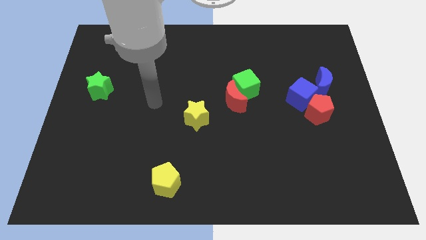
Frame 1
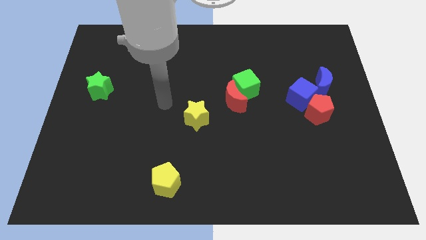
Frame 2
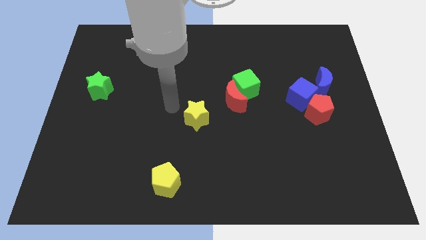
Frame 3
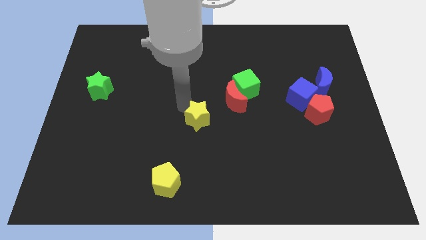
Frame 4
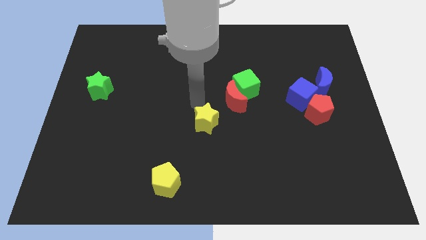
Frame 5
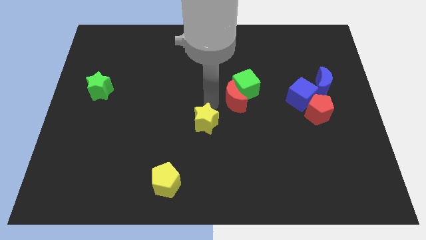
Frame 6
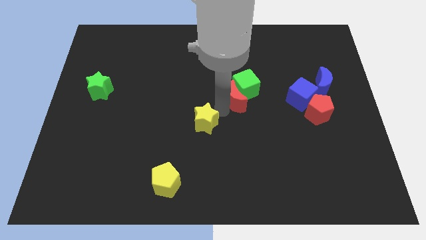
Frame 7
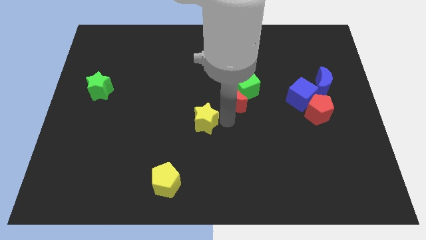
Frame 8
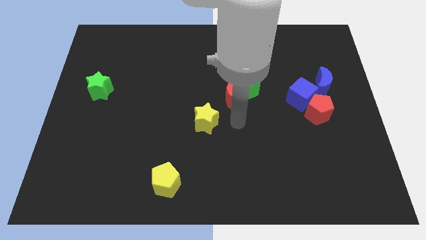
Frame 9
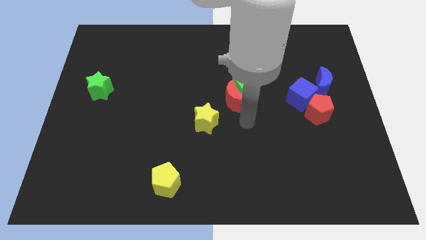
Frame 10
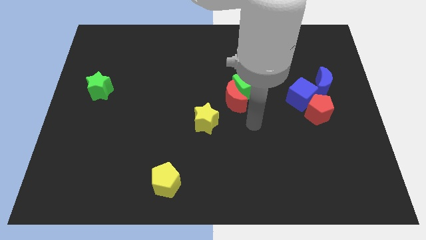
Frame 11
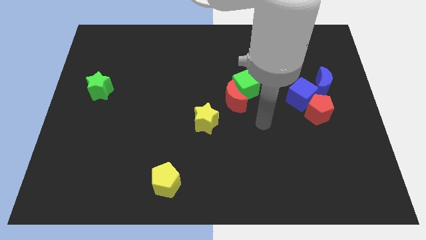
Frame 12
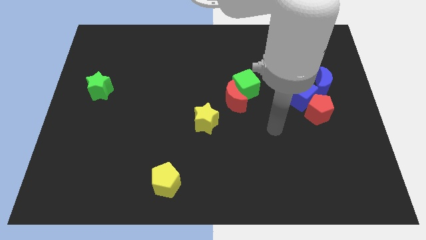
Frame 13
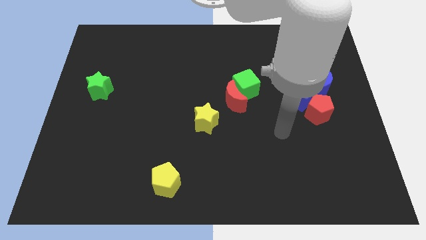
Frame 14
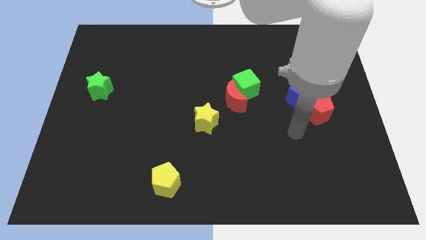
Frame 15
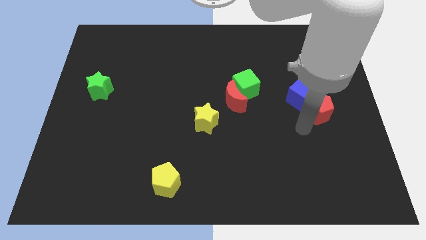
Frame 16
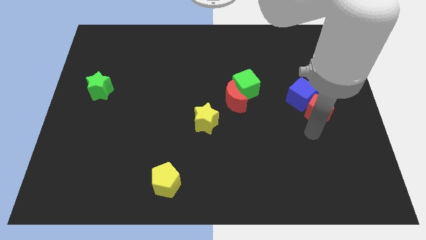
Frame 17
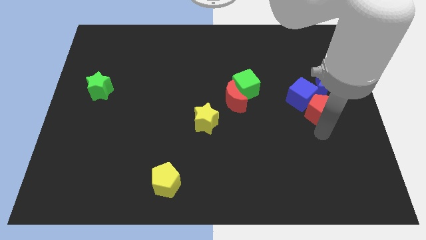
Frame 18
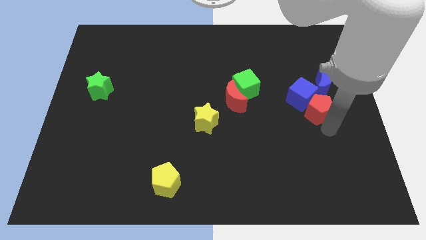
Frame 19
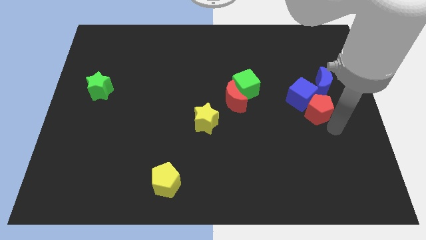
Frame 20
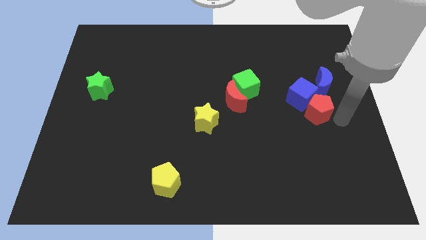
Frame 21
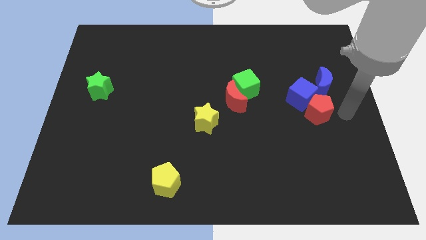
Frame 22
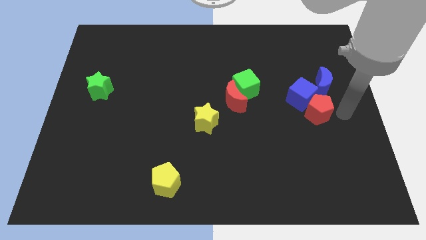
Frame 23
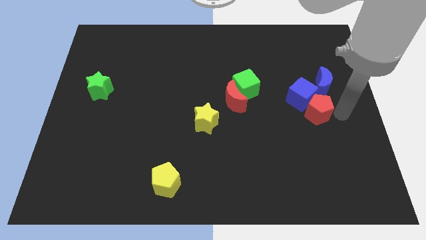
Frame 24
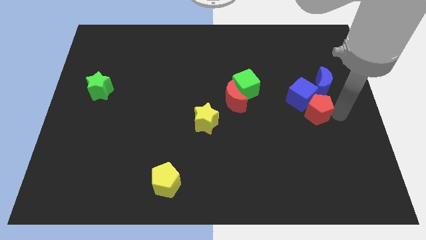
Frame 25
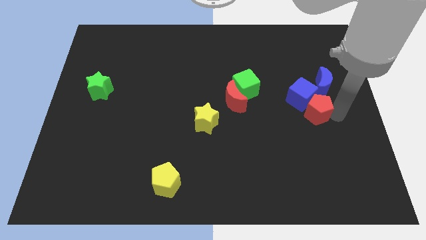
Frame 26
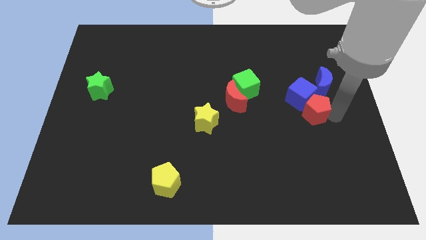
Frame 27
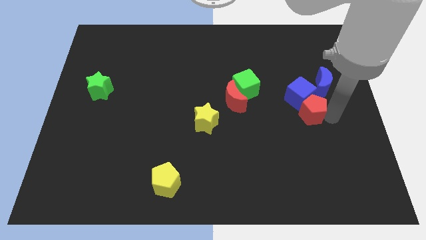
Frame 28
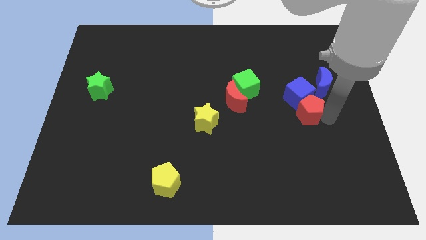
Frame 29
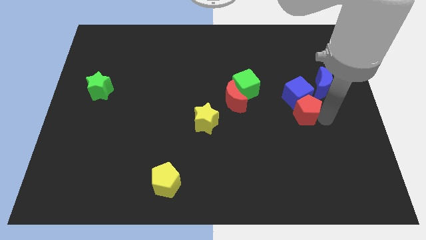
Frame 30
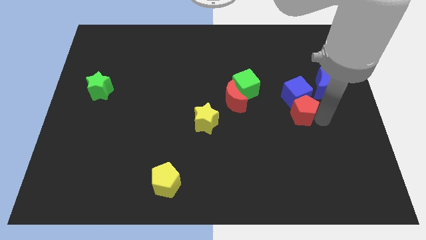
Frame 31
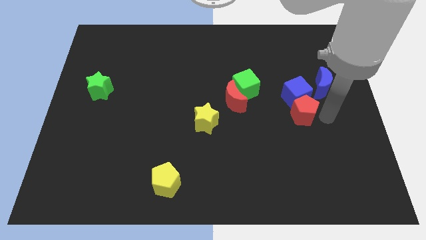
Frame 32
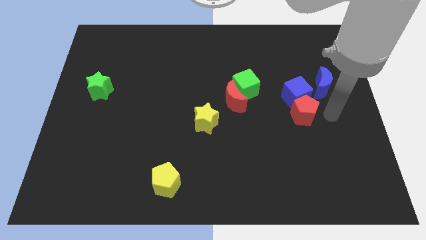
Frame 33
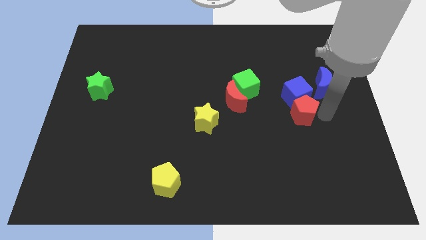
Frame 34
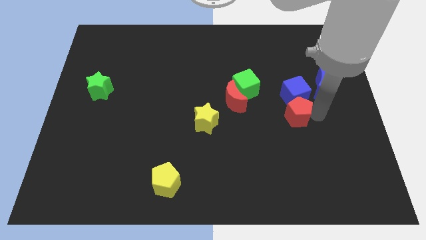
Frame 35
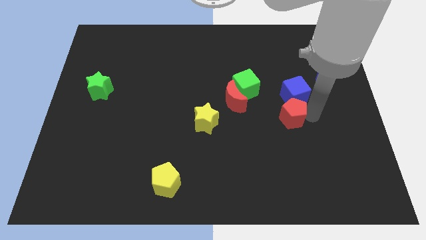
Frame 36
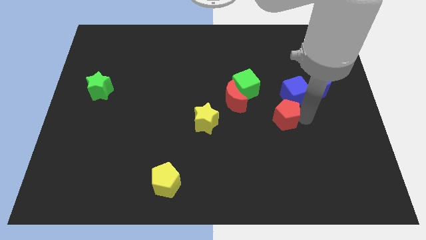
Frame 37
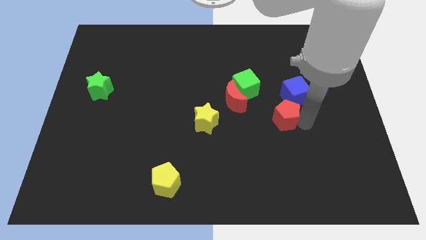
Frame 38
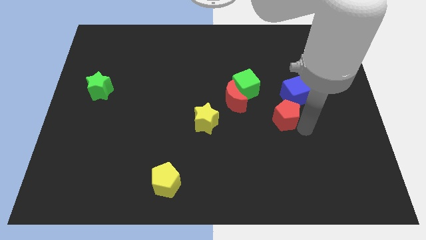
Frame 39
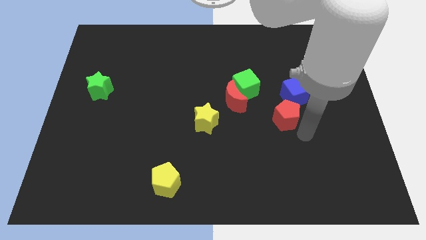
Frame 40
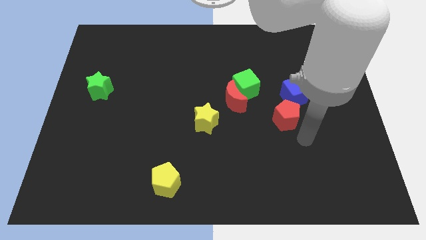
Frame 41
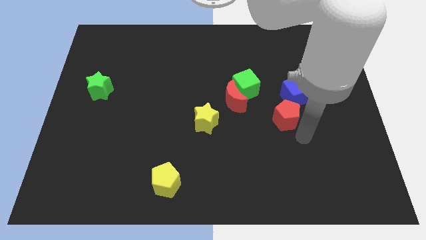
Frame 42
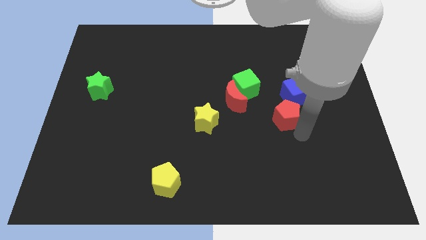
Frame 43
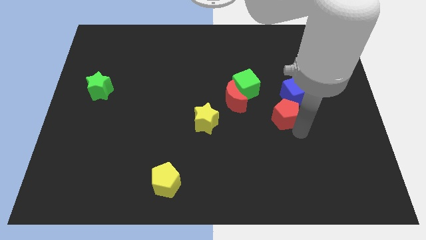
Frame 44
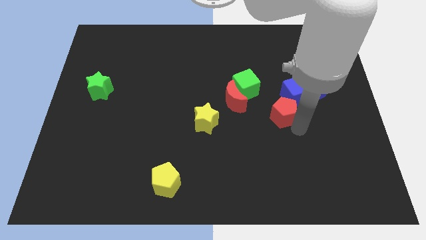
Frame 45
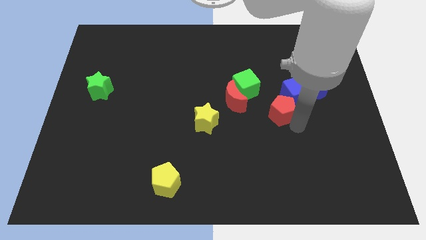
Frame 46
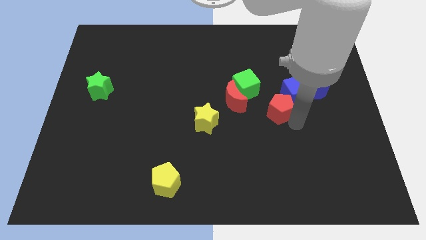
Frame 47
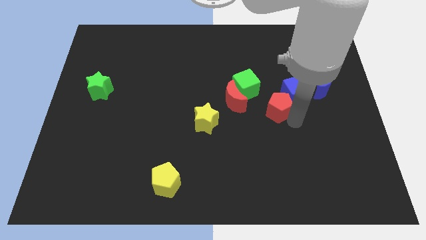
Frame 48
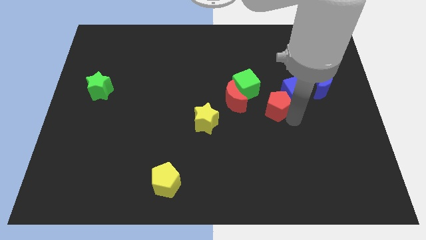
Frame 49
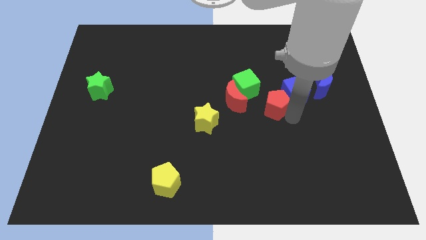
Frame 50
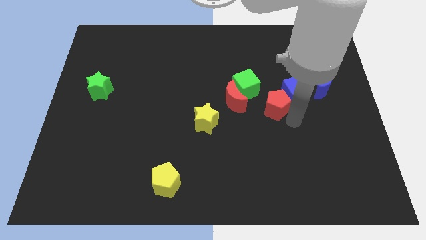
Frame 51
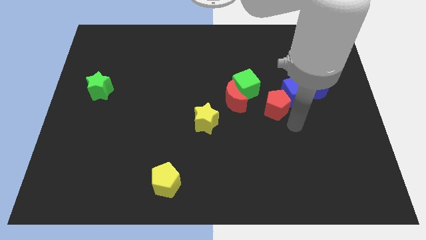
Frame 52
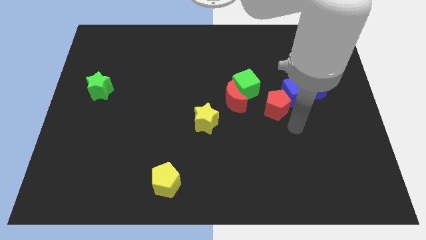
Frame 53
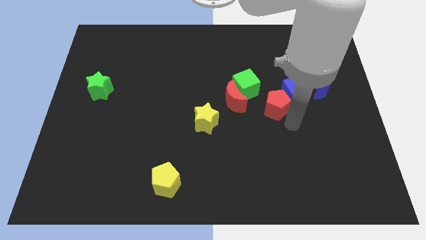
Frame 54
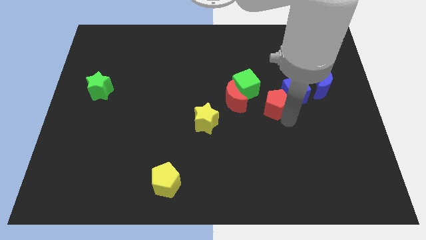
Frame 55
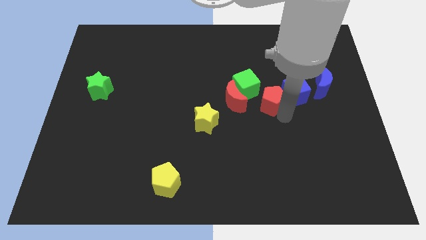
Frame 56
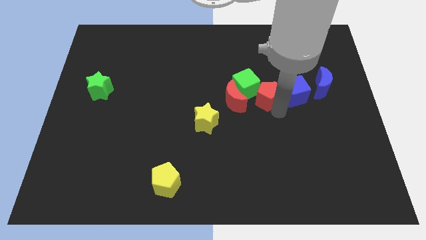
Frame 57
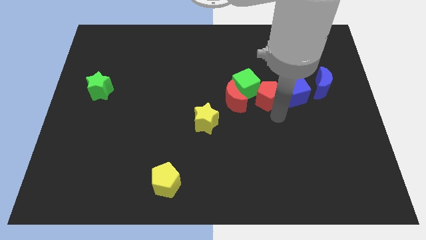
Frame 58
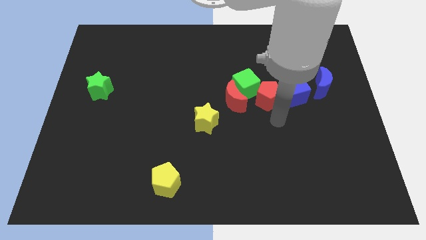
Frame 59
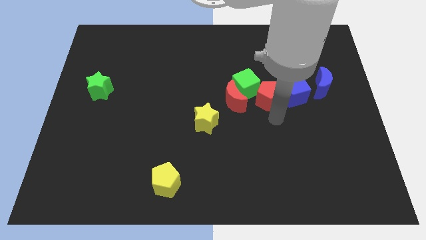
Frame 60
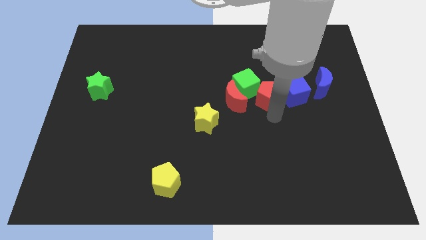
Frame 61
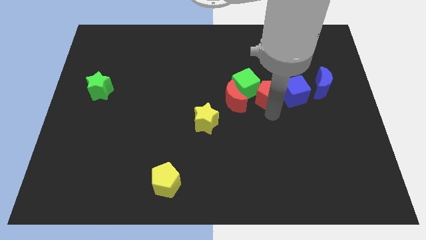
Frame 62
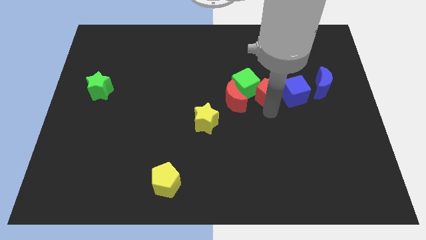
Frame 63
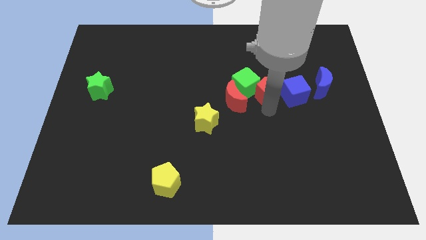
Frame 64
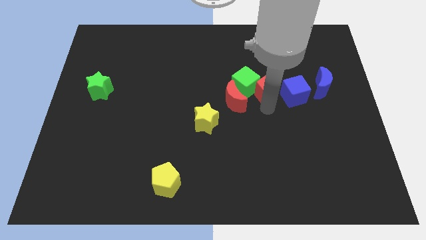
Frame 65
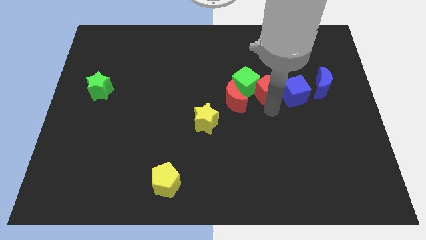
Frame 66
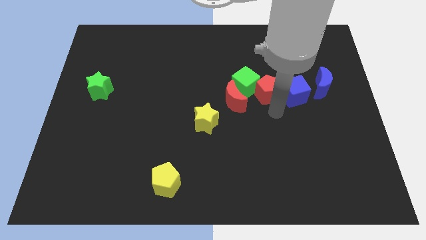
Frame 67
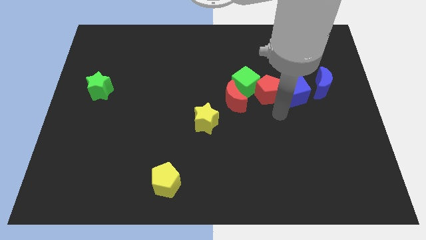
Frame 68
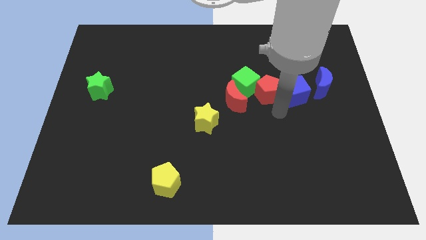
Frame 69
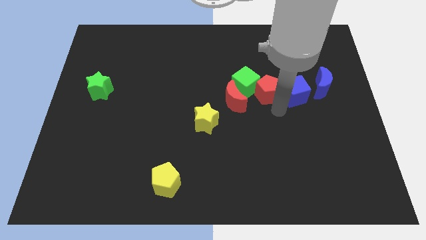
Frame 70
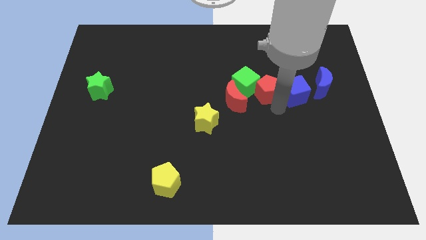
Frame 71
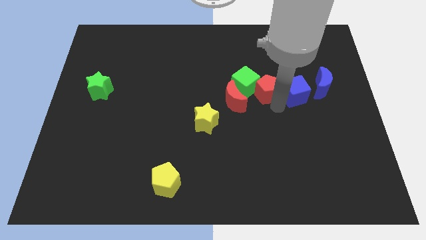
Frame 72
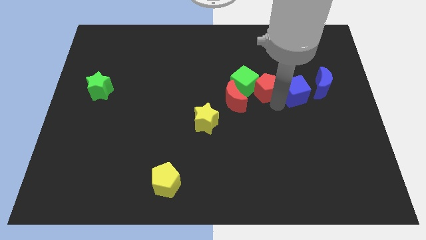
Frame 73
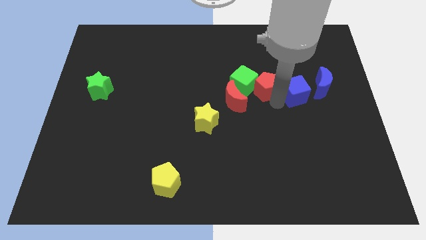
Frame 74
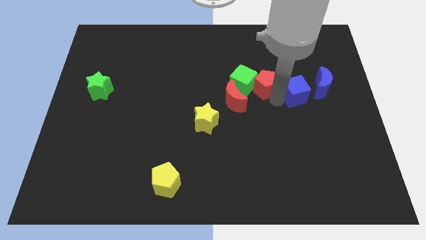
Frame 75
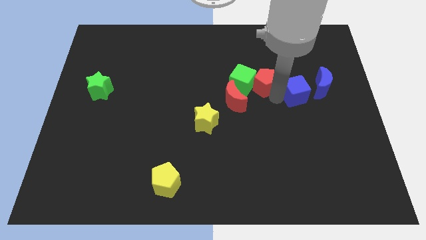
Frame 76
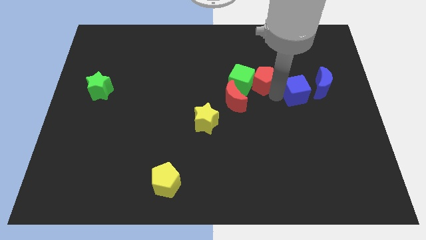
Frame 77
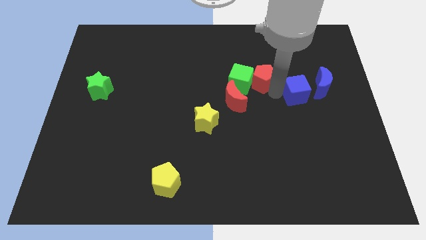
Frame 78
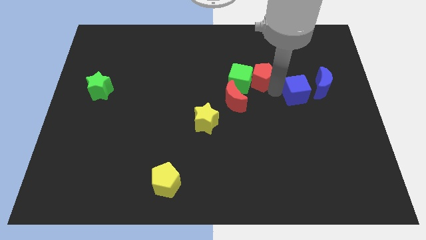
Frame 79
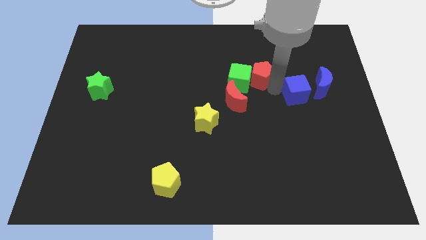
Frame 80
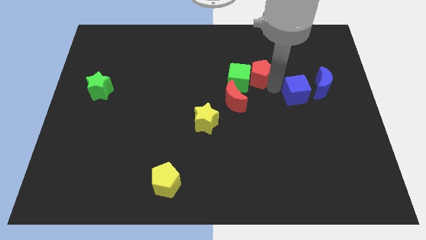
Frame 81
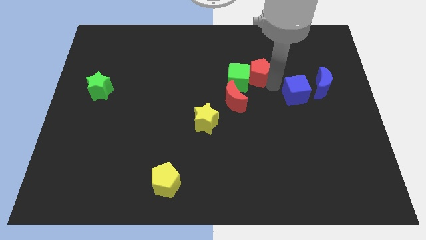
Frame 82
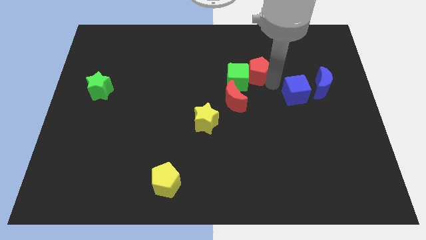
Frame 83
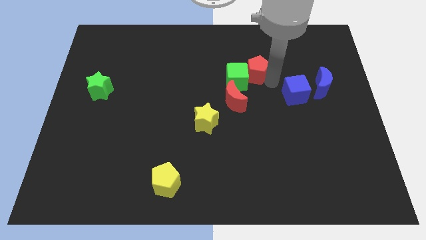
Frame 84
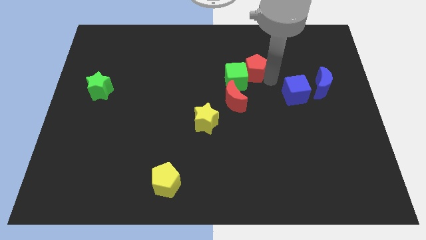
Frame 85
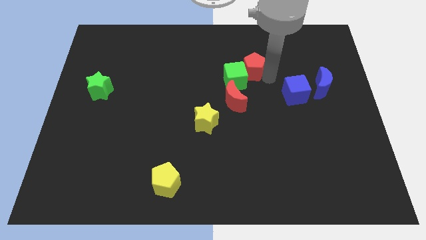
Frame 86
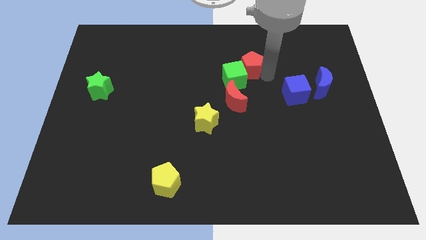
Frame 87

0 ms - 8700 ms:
put the red pentagon above the red moon
